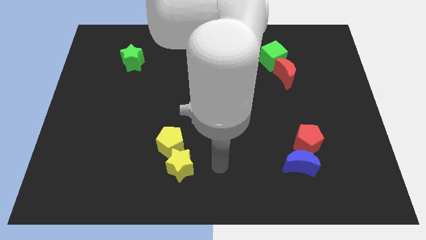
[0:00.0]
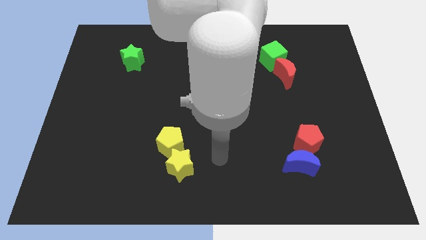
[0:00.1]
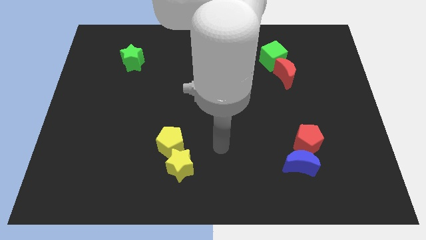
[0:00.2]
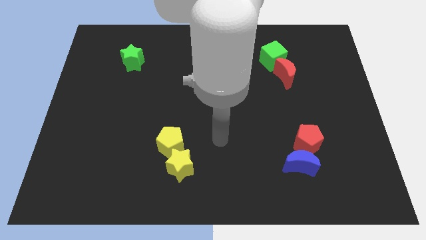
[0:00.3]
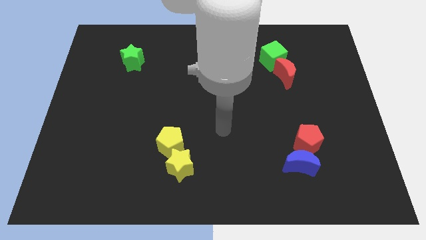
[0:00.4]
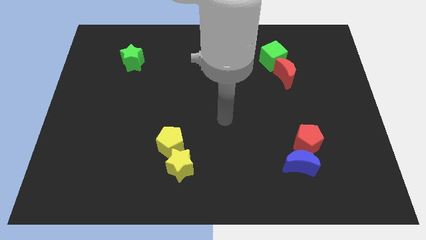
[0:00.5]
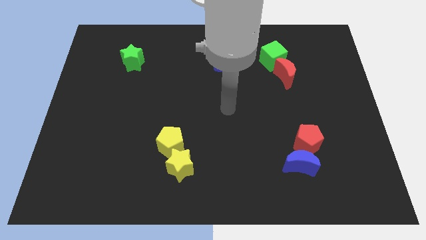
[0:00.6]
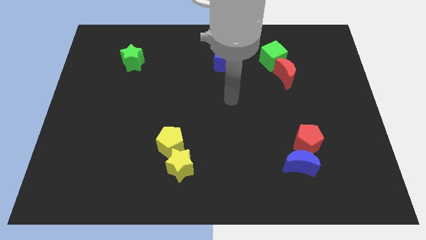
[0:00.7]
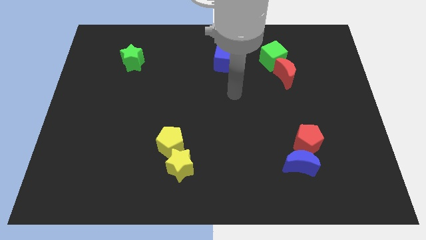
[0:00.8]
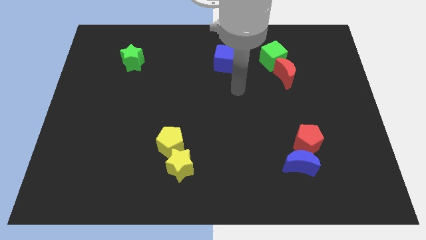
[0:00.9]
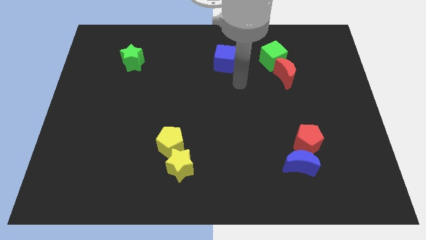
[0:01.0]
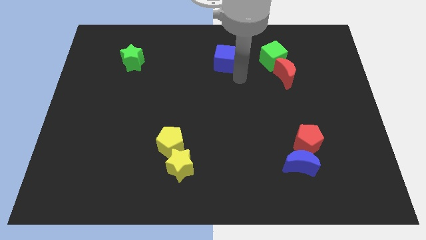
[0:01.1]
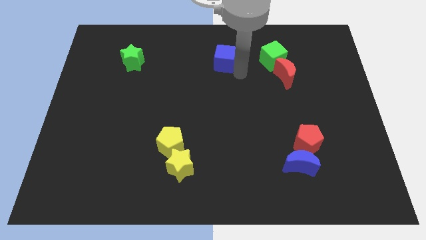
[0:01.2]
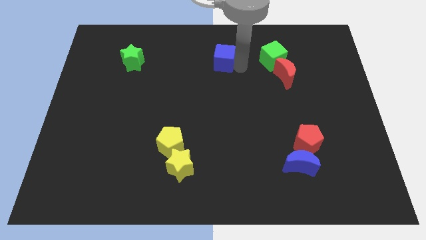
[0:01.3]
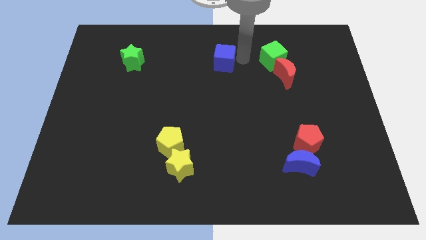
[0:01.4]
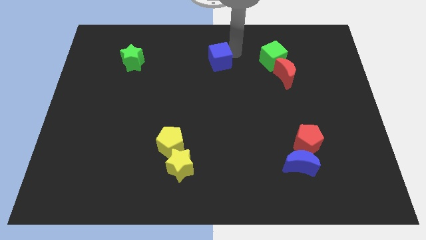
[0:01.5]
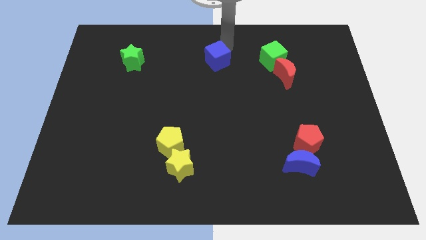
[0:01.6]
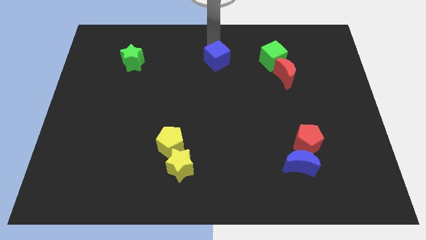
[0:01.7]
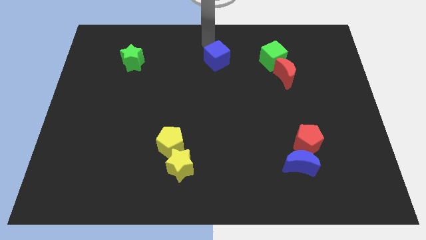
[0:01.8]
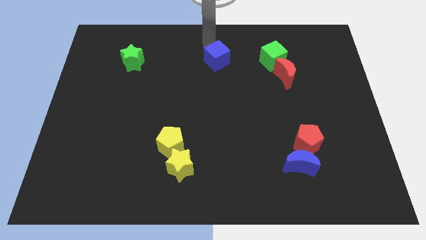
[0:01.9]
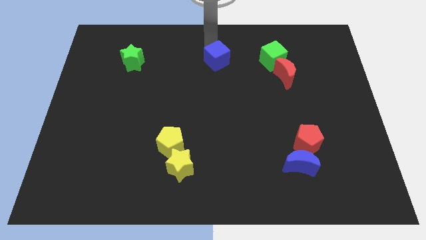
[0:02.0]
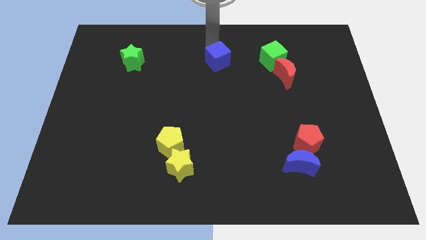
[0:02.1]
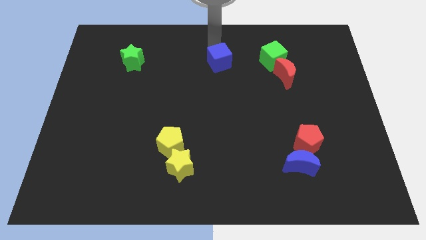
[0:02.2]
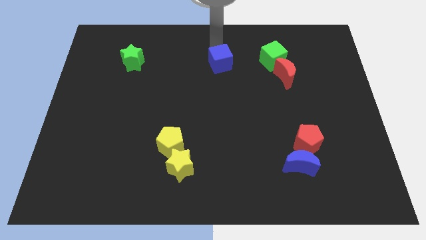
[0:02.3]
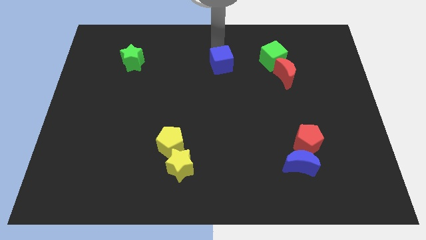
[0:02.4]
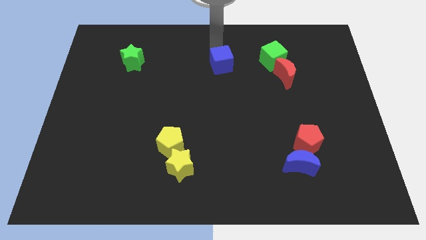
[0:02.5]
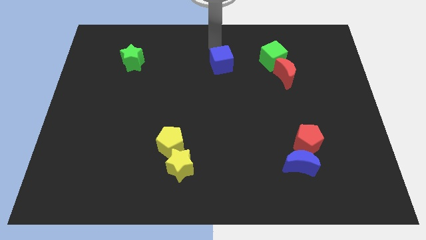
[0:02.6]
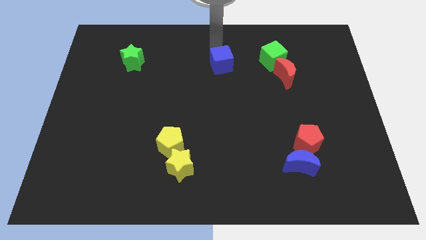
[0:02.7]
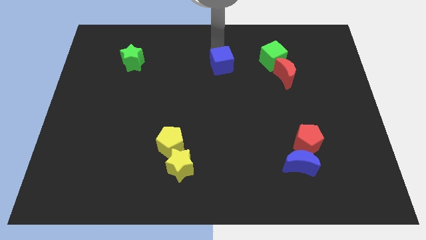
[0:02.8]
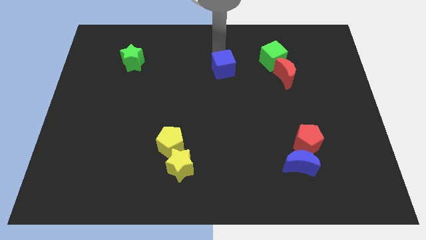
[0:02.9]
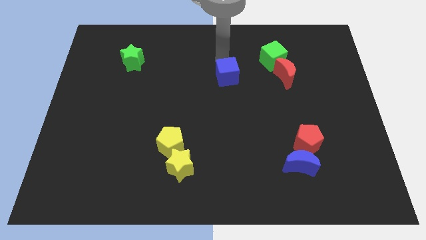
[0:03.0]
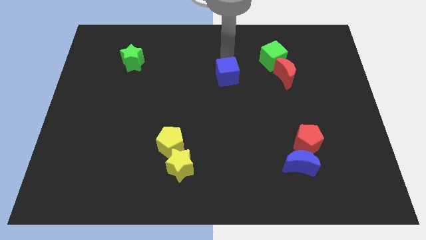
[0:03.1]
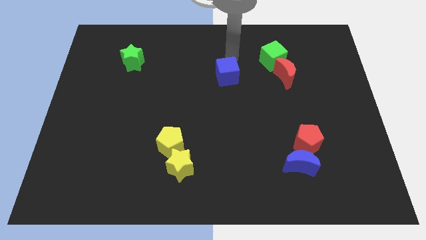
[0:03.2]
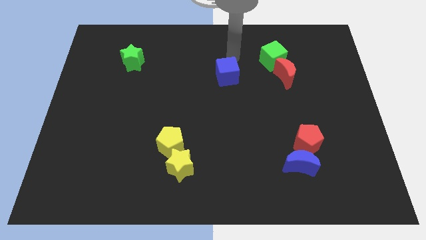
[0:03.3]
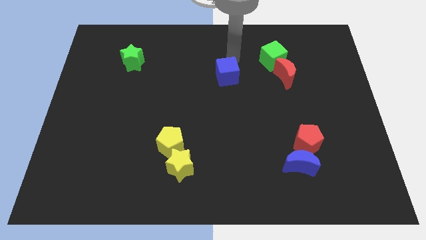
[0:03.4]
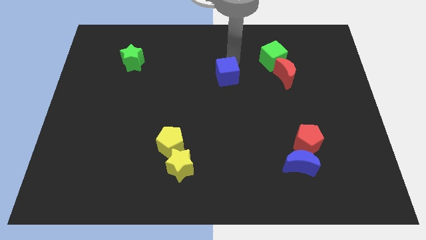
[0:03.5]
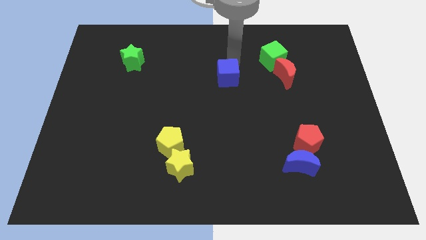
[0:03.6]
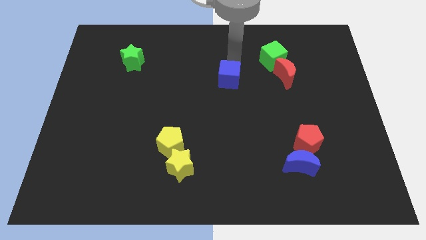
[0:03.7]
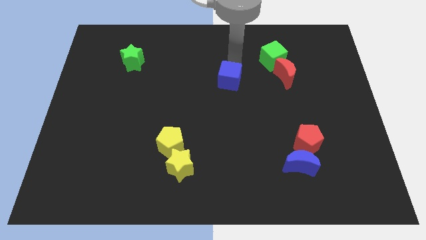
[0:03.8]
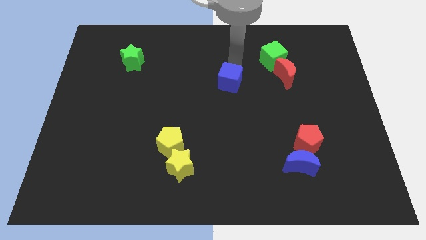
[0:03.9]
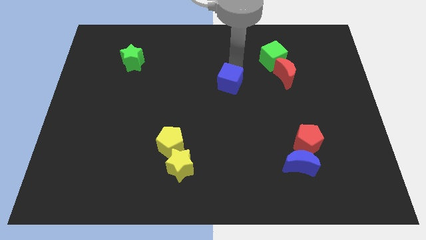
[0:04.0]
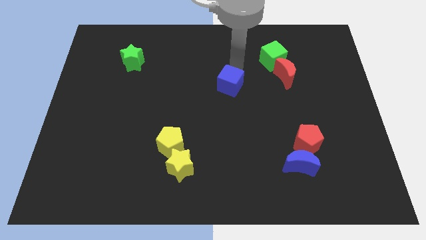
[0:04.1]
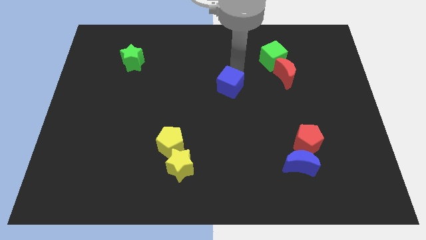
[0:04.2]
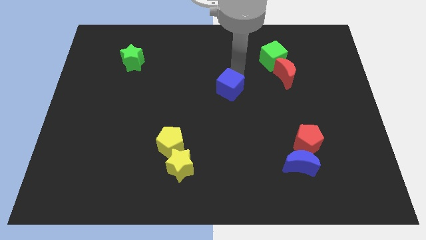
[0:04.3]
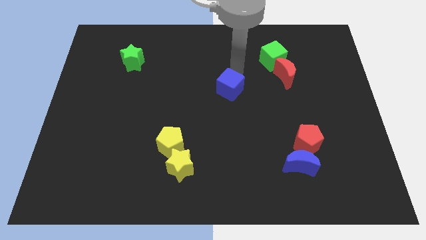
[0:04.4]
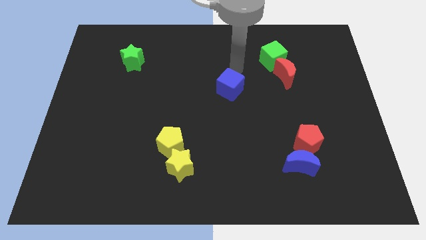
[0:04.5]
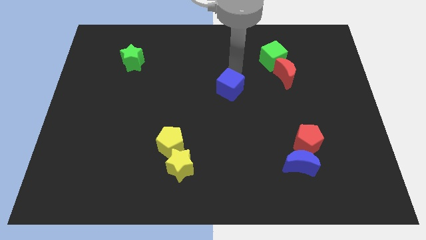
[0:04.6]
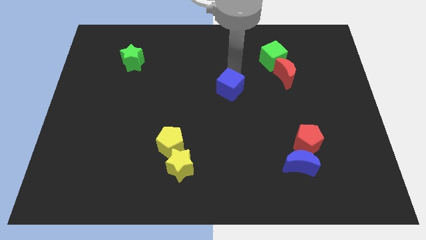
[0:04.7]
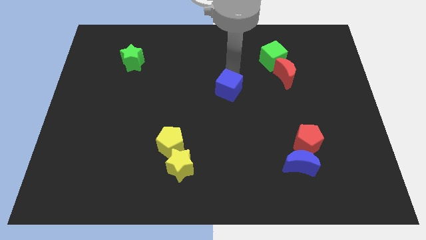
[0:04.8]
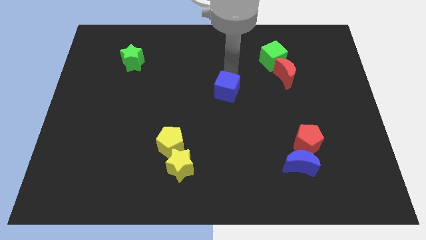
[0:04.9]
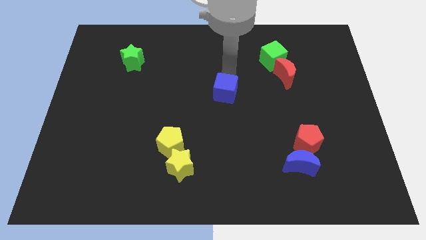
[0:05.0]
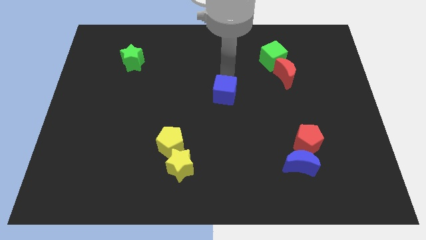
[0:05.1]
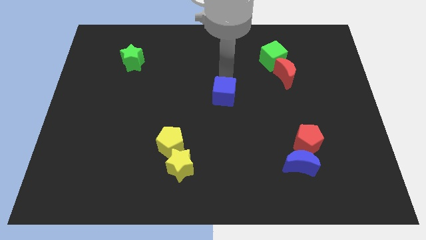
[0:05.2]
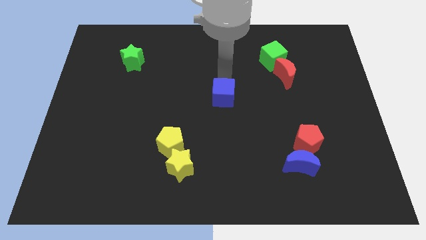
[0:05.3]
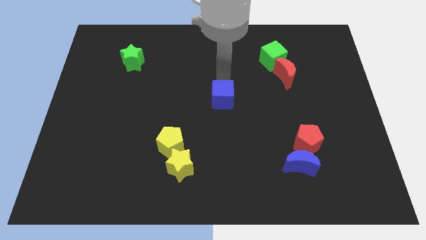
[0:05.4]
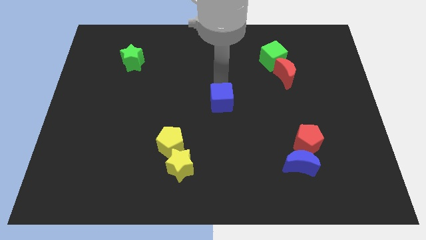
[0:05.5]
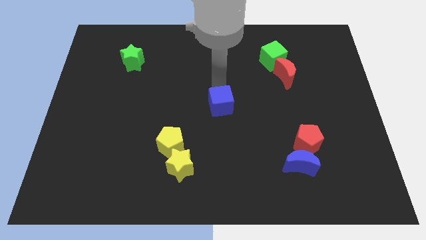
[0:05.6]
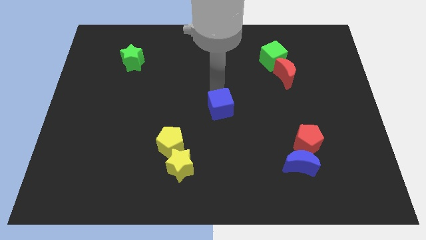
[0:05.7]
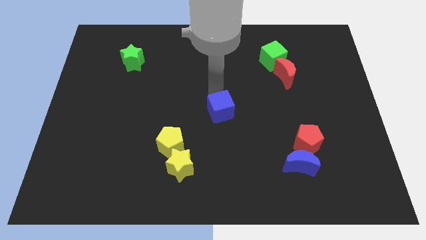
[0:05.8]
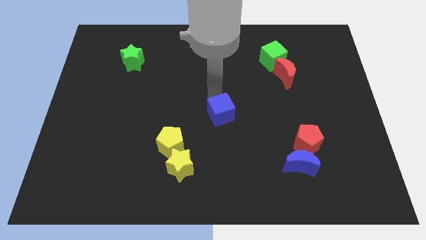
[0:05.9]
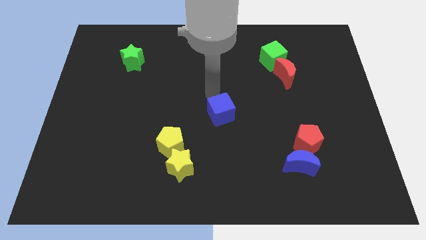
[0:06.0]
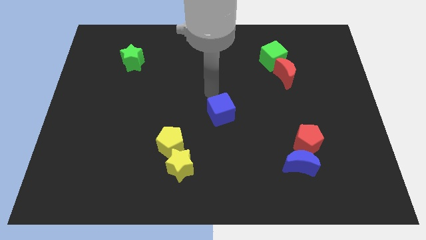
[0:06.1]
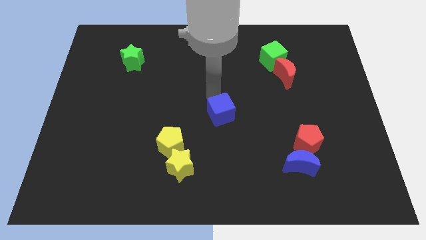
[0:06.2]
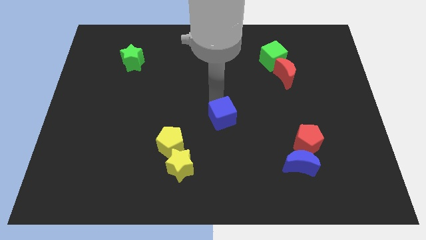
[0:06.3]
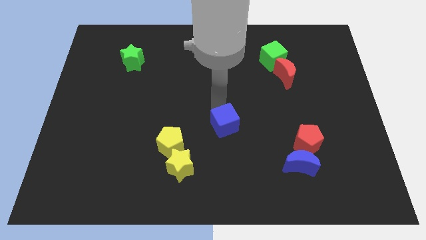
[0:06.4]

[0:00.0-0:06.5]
push the blue cube downwards

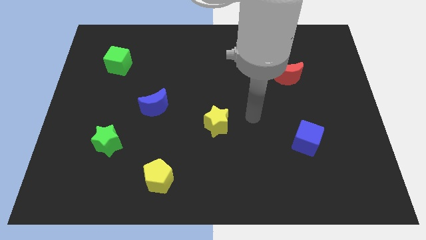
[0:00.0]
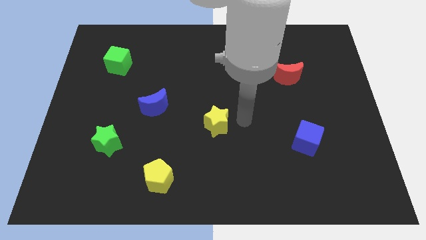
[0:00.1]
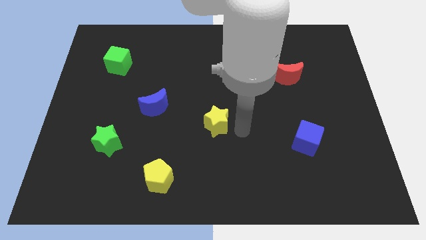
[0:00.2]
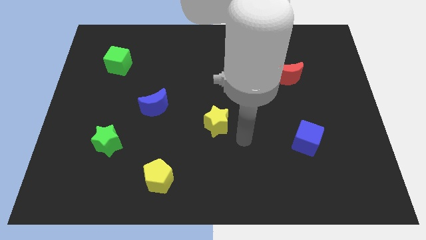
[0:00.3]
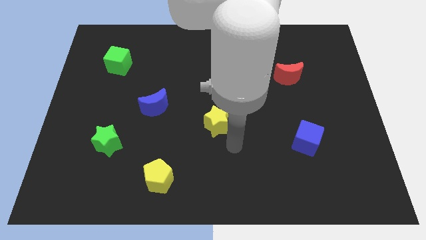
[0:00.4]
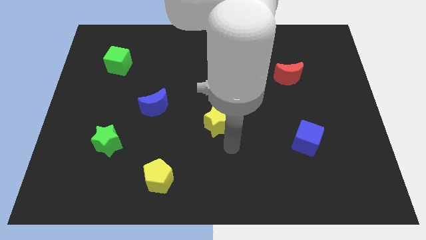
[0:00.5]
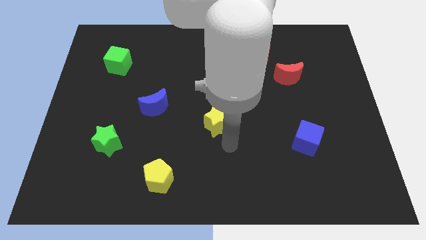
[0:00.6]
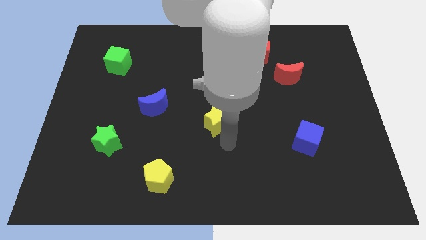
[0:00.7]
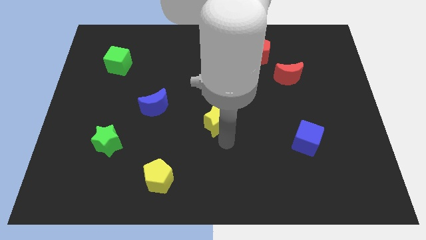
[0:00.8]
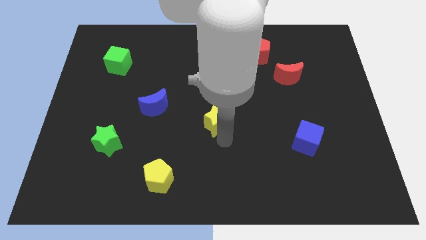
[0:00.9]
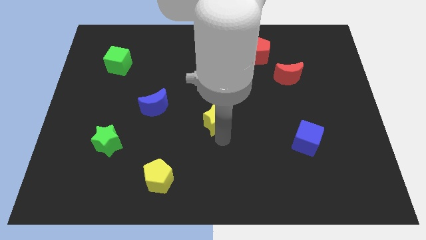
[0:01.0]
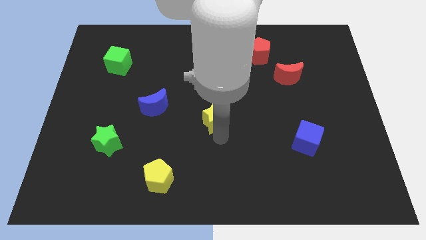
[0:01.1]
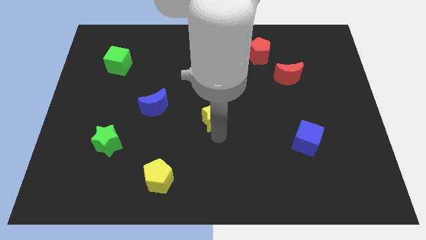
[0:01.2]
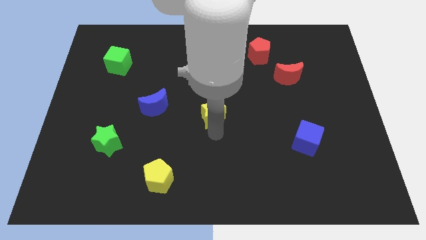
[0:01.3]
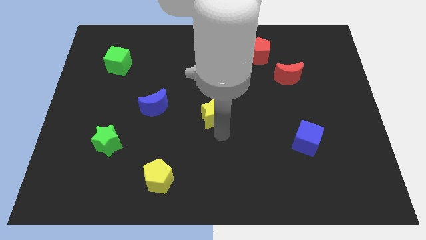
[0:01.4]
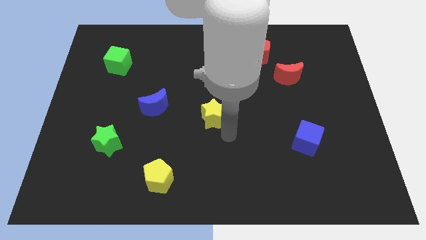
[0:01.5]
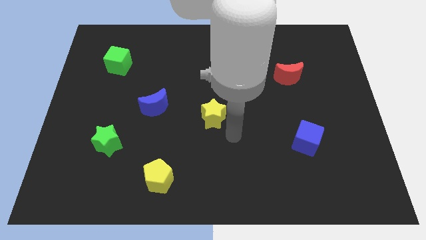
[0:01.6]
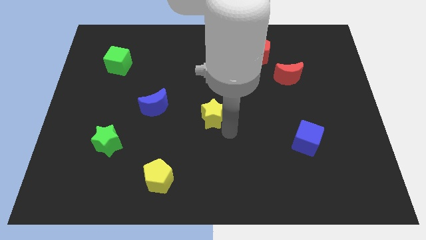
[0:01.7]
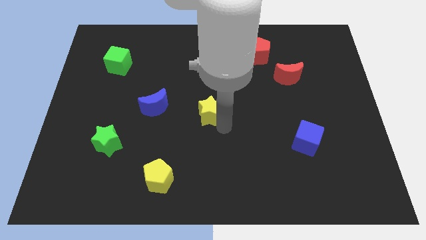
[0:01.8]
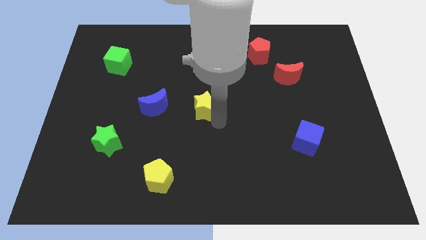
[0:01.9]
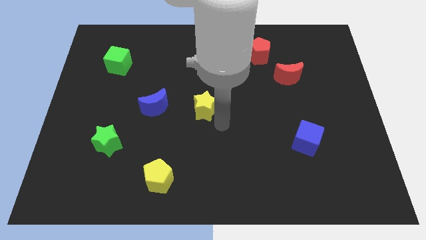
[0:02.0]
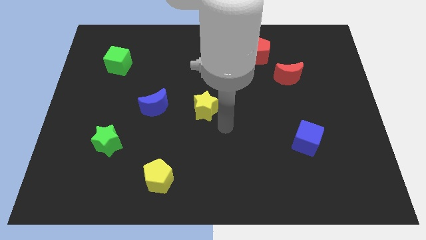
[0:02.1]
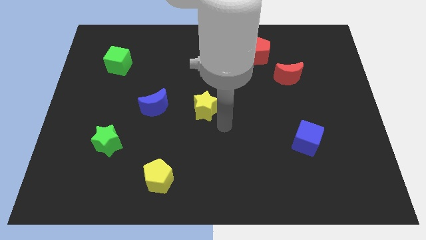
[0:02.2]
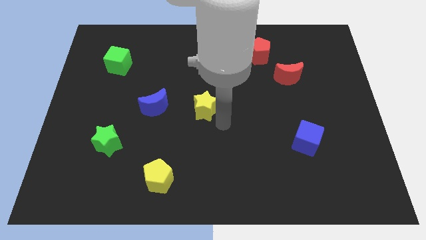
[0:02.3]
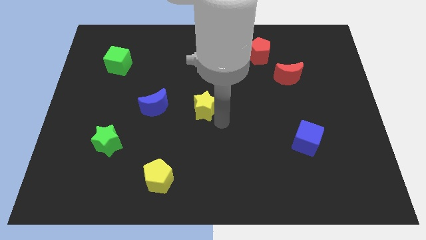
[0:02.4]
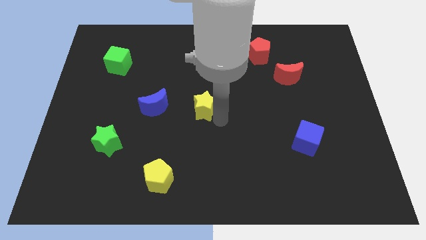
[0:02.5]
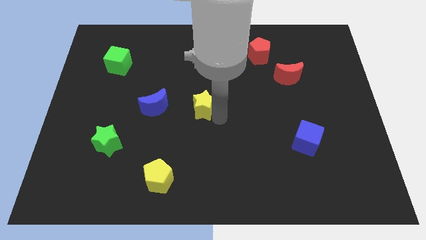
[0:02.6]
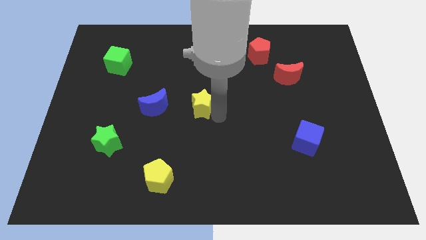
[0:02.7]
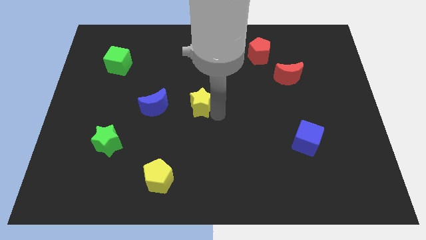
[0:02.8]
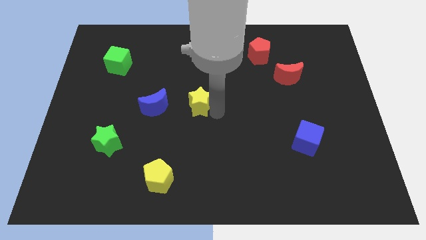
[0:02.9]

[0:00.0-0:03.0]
move the yellow star slightly up and then left
